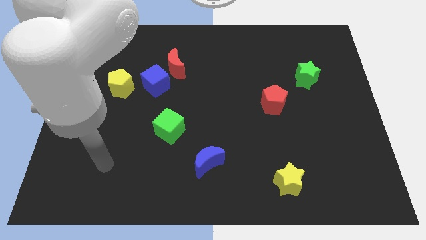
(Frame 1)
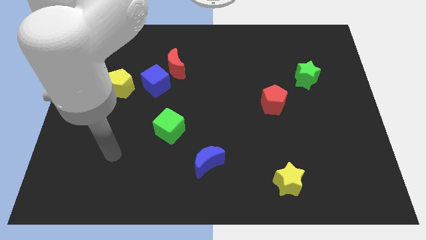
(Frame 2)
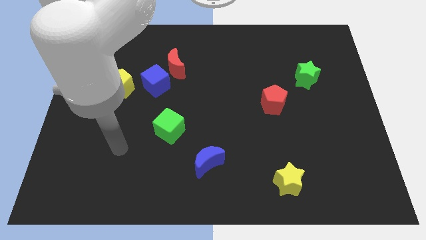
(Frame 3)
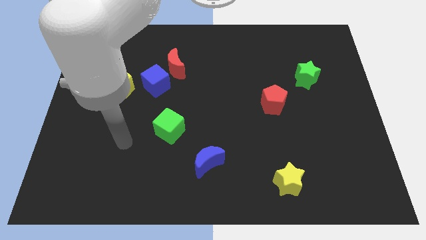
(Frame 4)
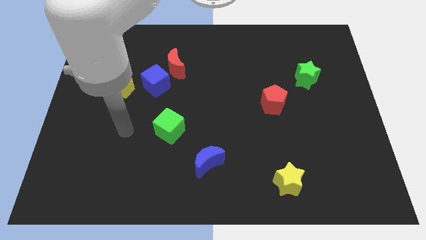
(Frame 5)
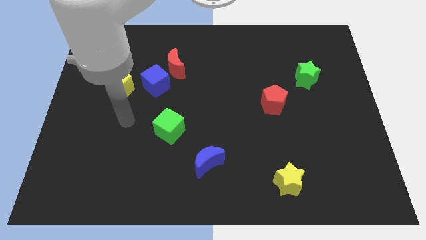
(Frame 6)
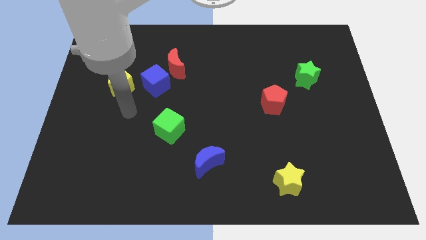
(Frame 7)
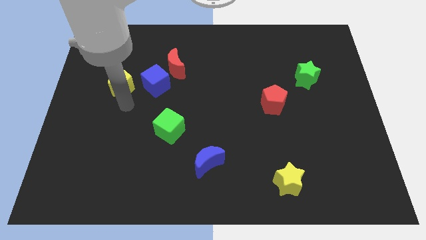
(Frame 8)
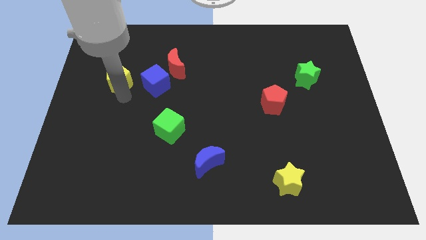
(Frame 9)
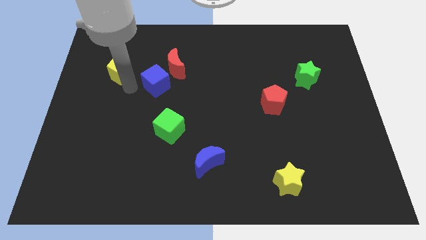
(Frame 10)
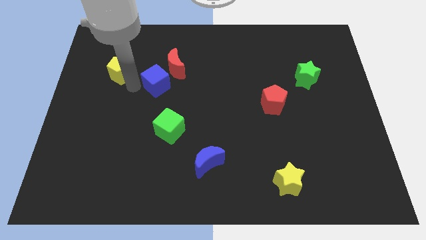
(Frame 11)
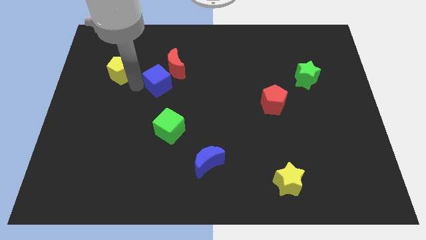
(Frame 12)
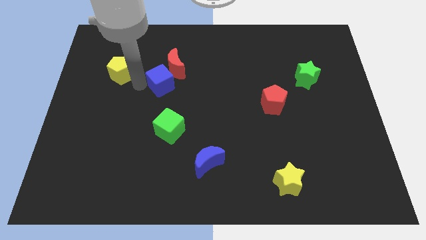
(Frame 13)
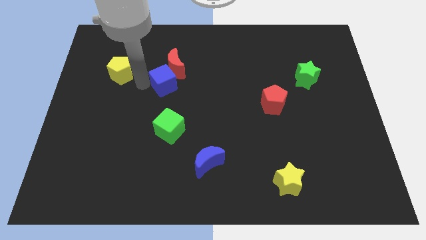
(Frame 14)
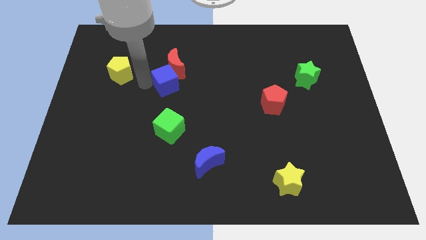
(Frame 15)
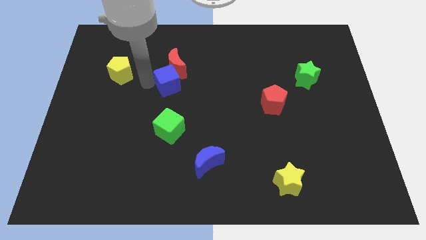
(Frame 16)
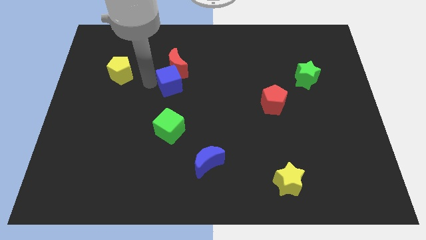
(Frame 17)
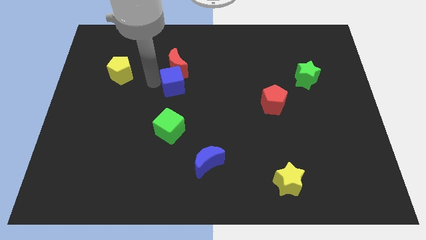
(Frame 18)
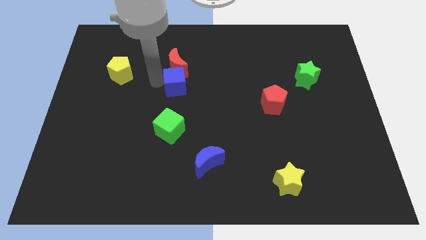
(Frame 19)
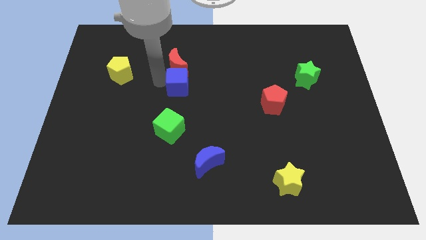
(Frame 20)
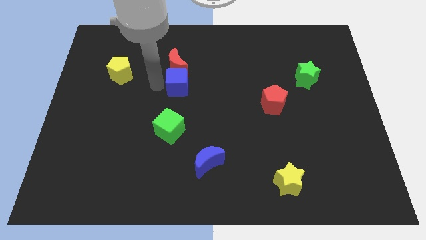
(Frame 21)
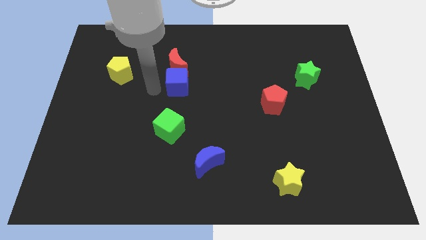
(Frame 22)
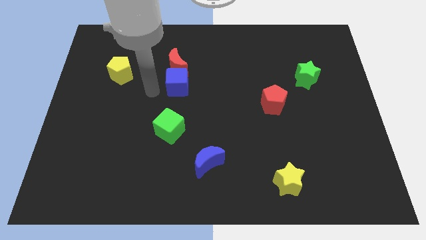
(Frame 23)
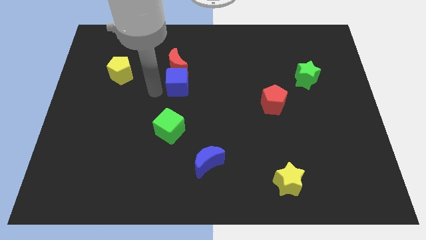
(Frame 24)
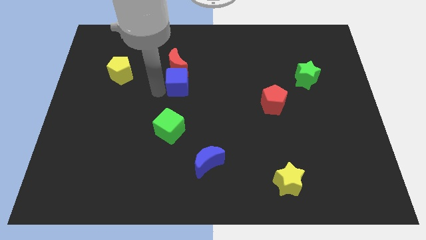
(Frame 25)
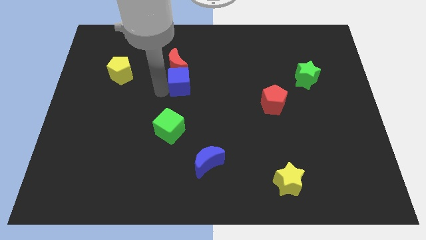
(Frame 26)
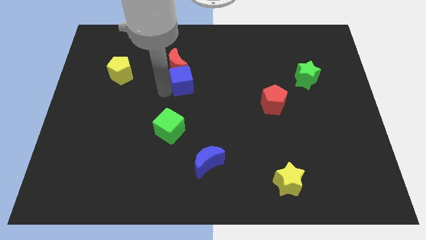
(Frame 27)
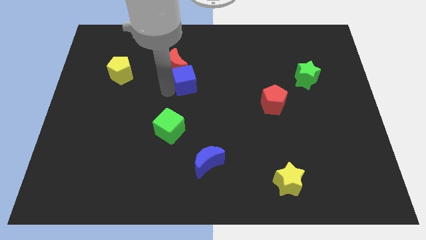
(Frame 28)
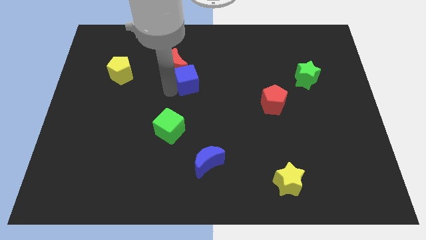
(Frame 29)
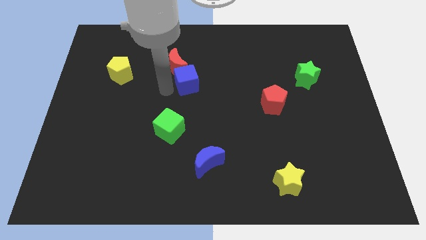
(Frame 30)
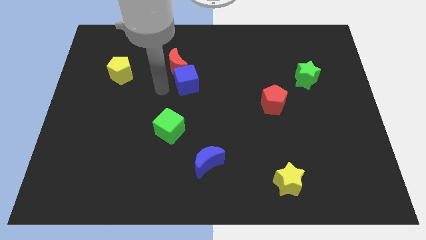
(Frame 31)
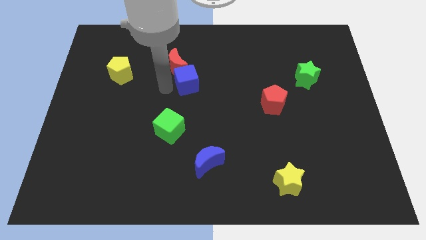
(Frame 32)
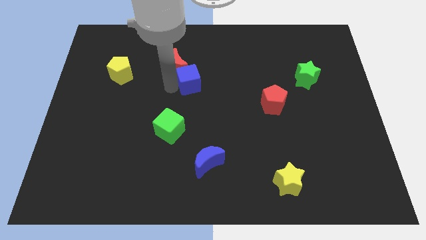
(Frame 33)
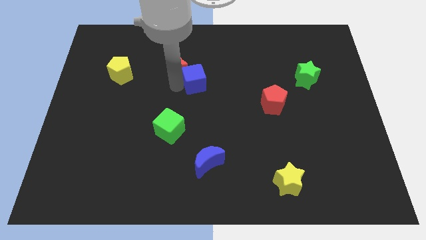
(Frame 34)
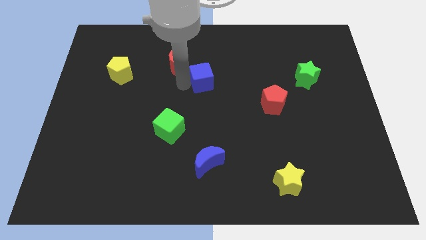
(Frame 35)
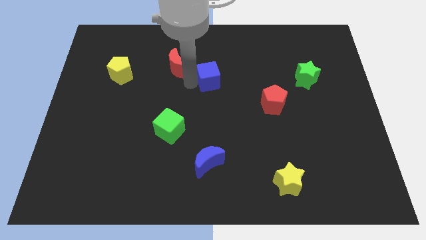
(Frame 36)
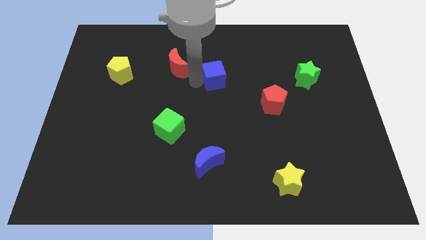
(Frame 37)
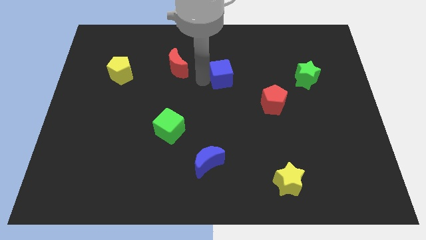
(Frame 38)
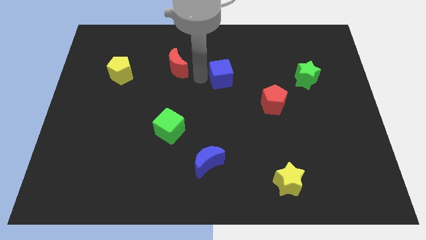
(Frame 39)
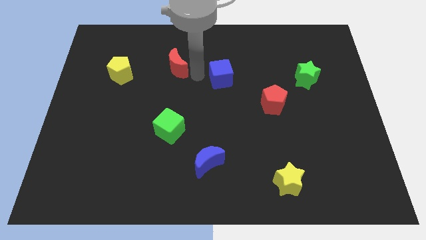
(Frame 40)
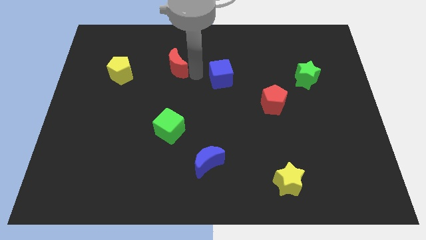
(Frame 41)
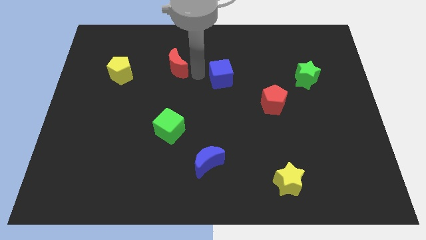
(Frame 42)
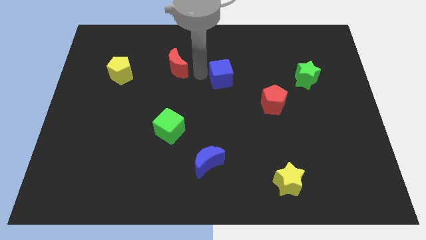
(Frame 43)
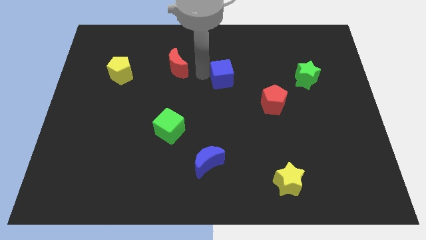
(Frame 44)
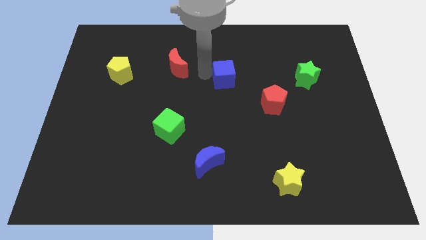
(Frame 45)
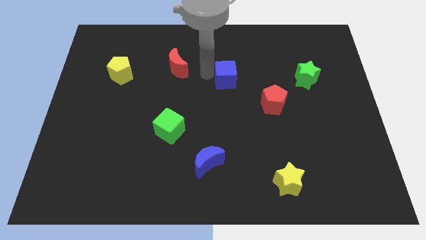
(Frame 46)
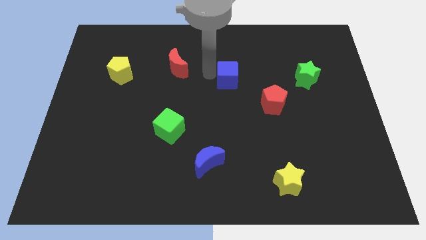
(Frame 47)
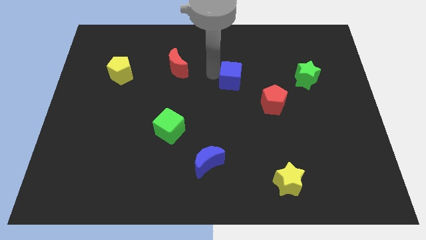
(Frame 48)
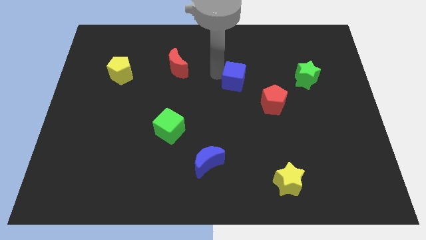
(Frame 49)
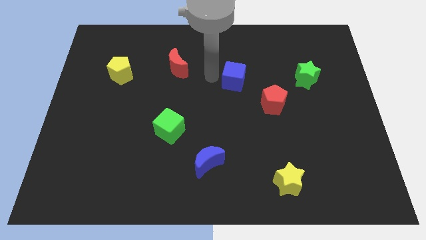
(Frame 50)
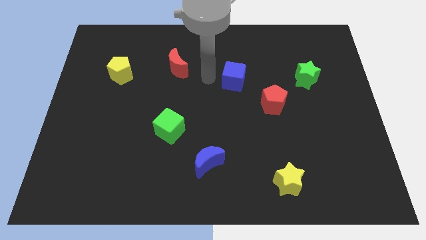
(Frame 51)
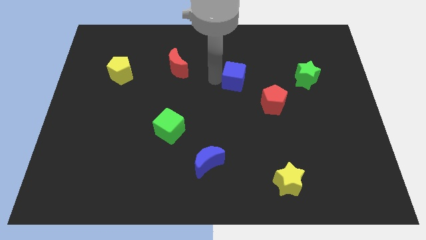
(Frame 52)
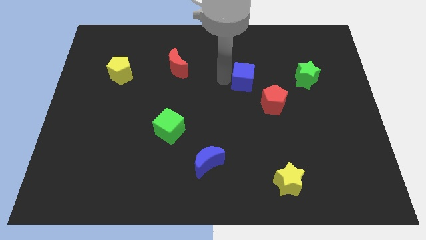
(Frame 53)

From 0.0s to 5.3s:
slide the blue cube right

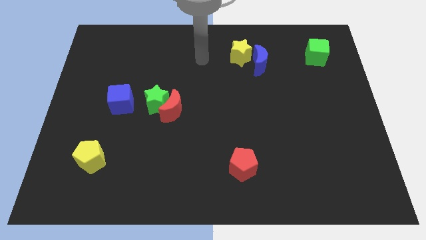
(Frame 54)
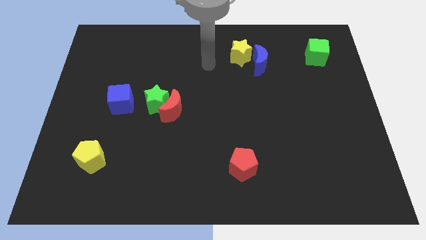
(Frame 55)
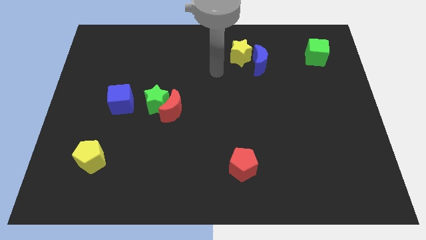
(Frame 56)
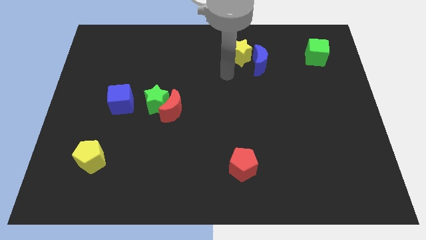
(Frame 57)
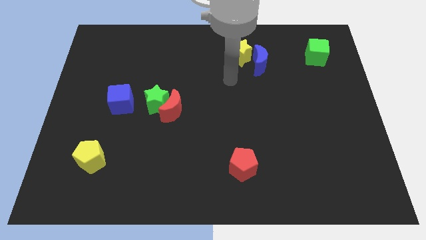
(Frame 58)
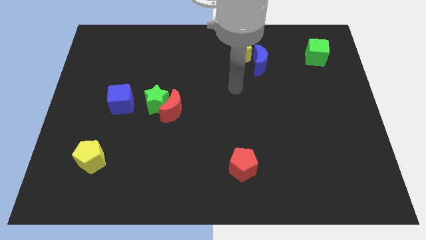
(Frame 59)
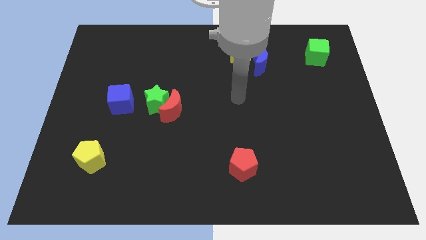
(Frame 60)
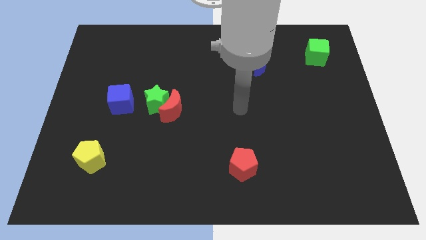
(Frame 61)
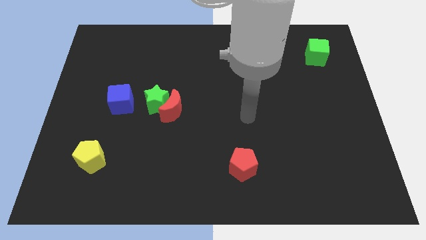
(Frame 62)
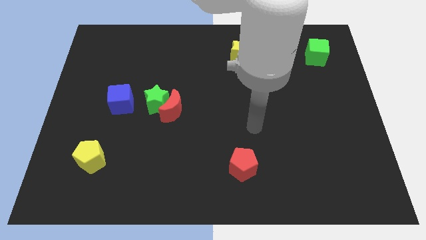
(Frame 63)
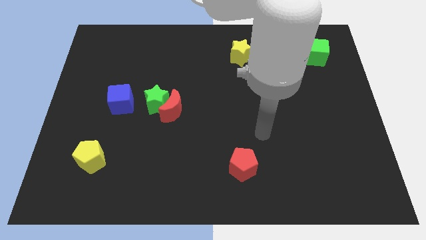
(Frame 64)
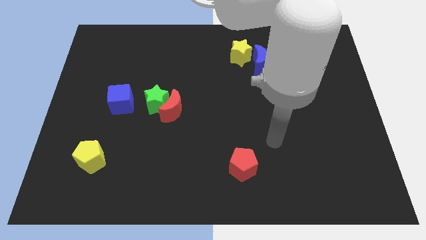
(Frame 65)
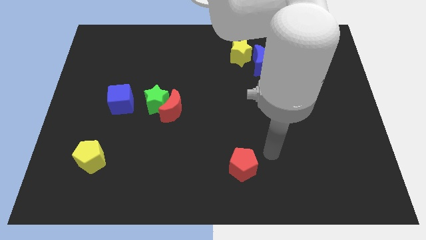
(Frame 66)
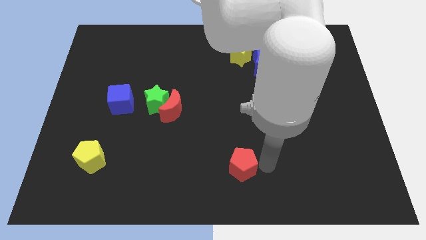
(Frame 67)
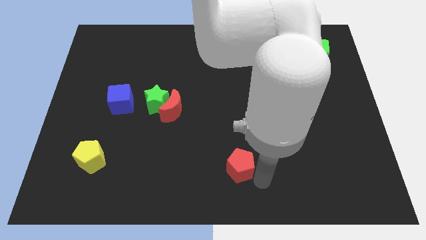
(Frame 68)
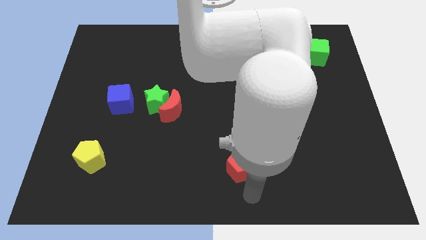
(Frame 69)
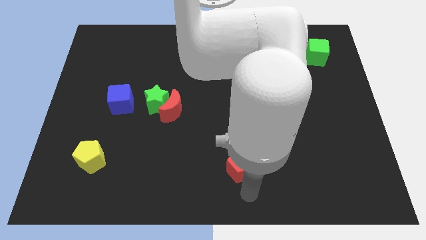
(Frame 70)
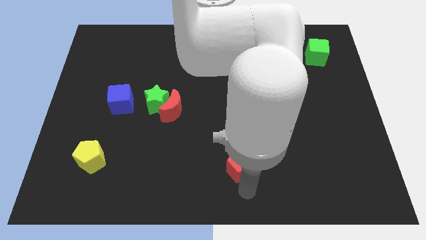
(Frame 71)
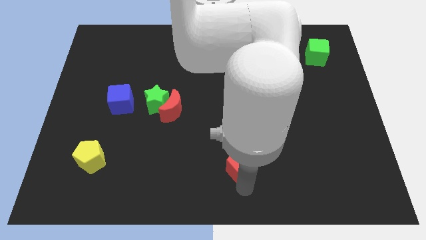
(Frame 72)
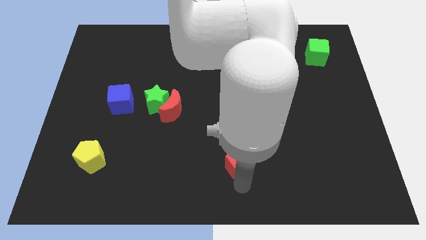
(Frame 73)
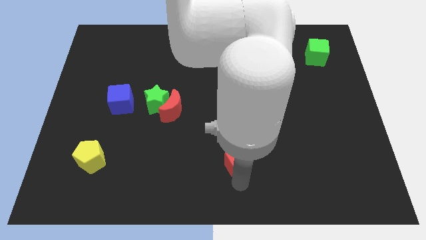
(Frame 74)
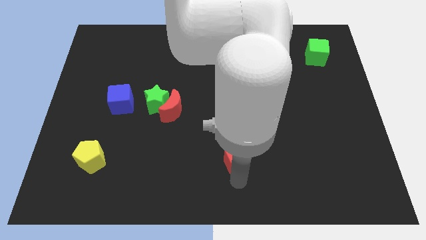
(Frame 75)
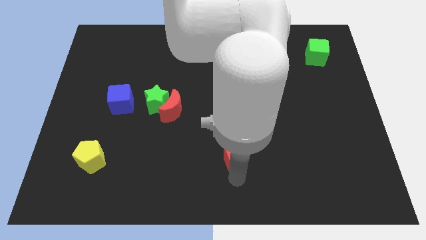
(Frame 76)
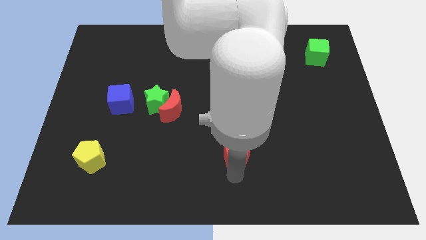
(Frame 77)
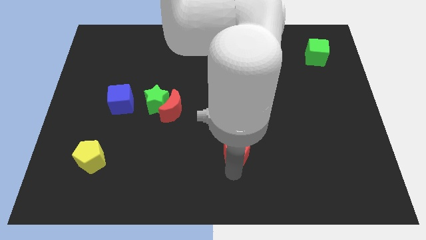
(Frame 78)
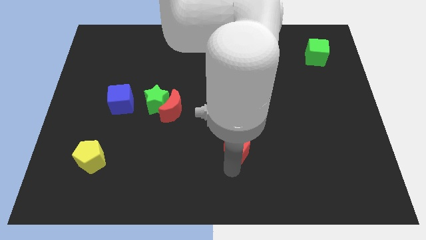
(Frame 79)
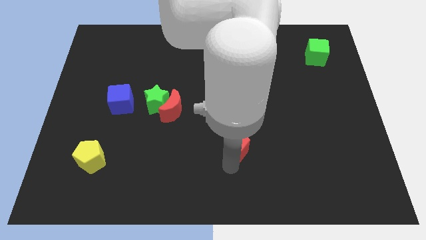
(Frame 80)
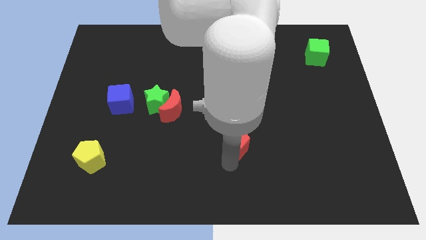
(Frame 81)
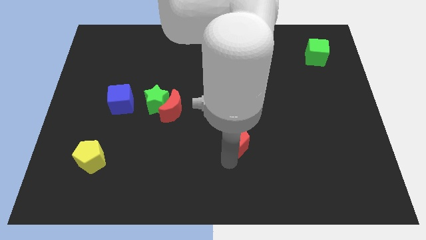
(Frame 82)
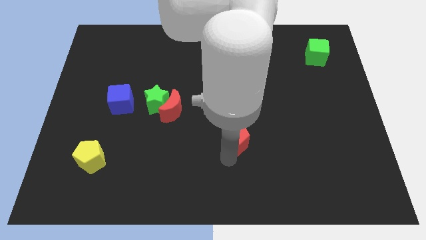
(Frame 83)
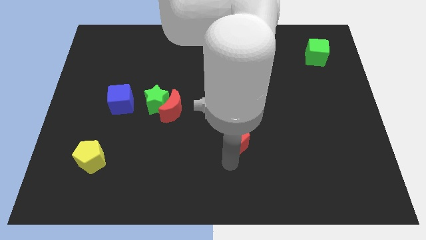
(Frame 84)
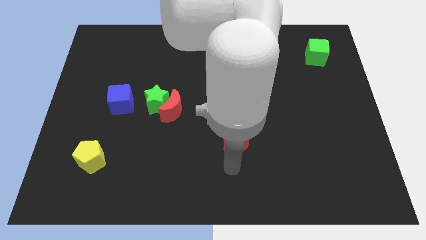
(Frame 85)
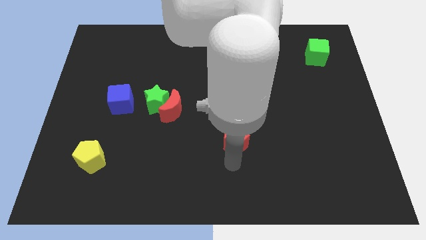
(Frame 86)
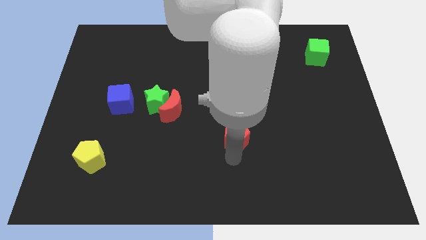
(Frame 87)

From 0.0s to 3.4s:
slightly move the red pentagon up
